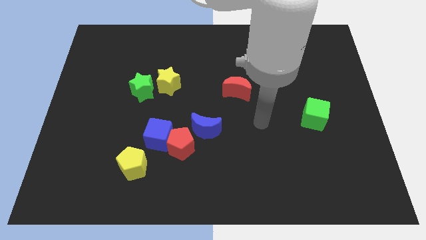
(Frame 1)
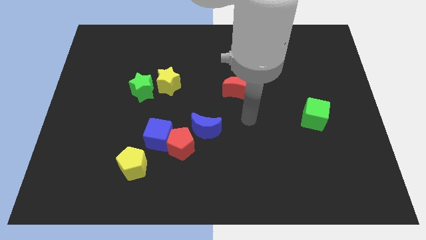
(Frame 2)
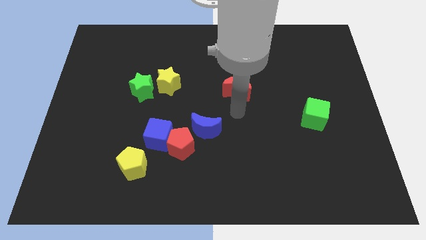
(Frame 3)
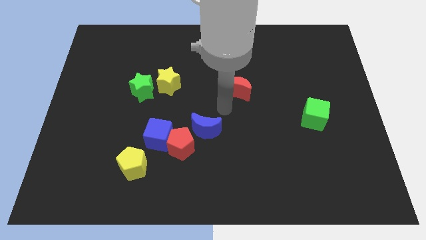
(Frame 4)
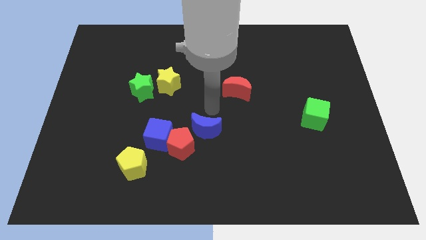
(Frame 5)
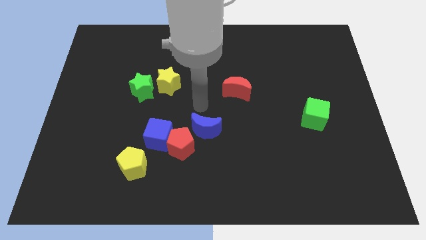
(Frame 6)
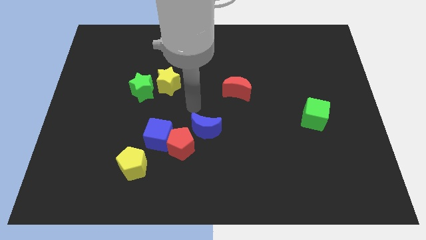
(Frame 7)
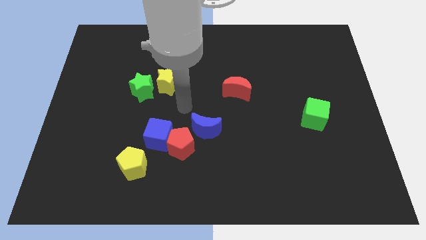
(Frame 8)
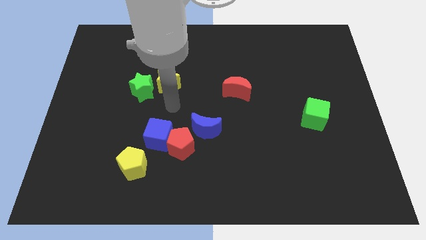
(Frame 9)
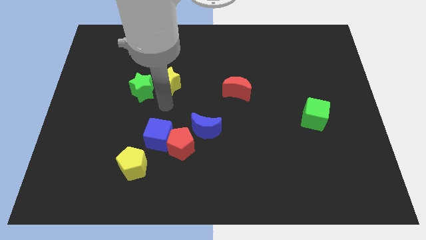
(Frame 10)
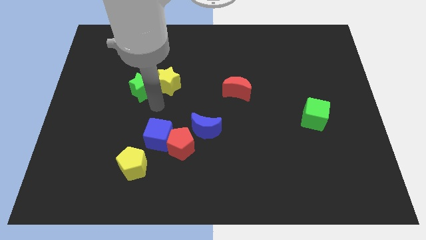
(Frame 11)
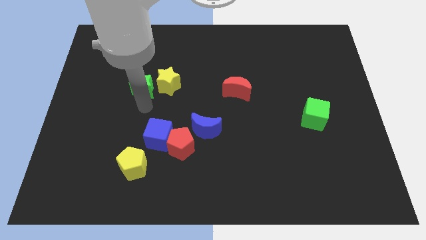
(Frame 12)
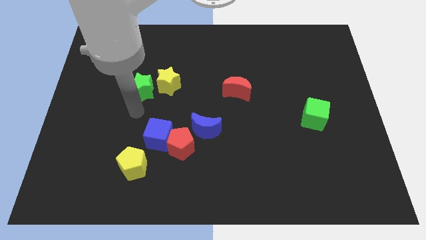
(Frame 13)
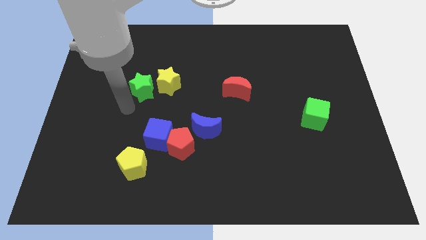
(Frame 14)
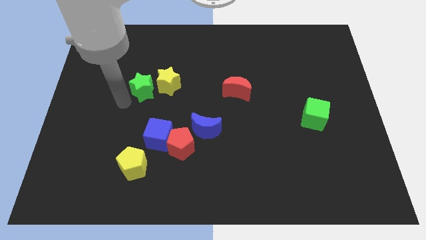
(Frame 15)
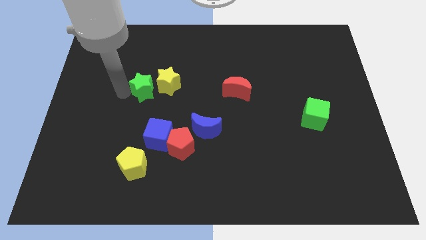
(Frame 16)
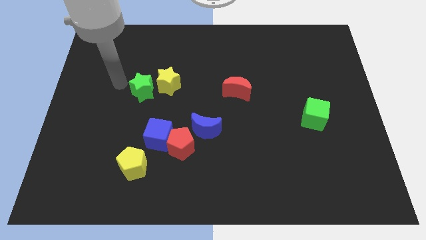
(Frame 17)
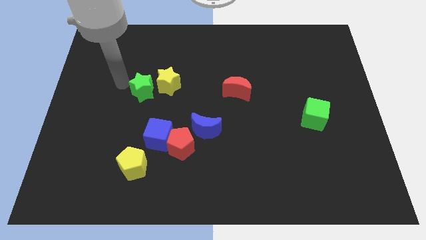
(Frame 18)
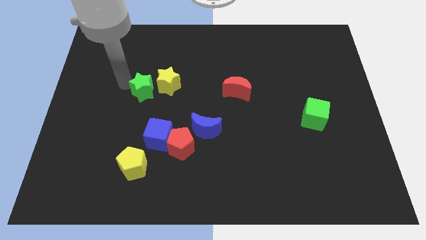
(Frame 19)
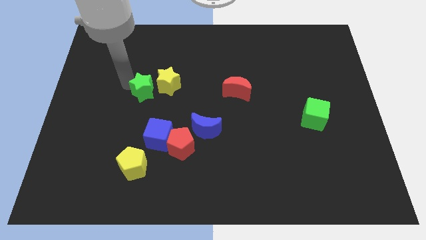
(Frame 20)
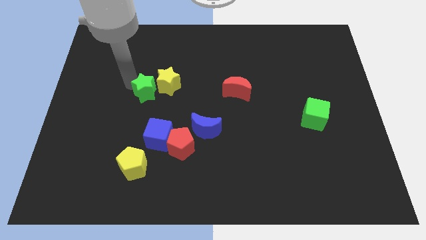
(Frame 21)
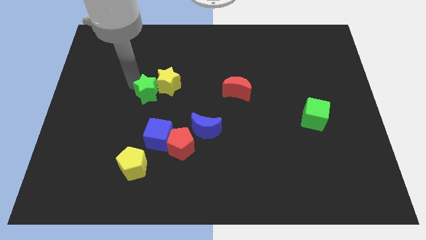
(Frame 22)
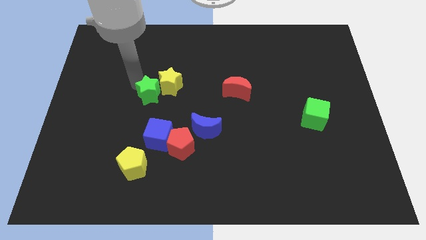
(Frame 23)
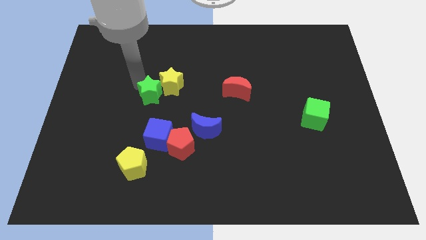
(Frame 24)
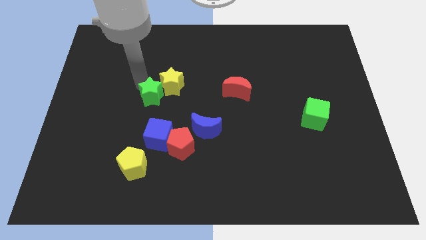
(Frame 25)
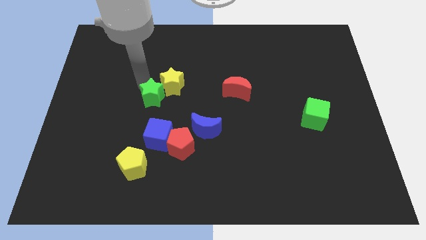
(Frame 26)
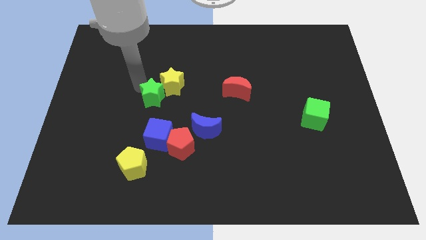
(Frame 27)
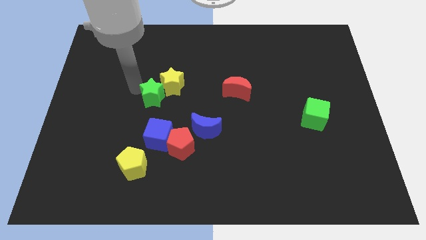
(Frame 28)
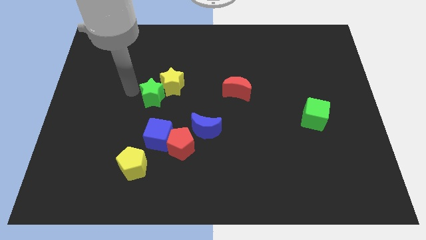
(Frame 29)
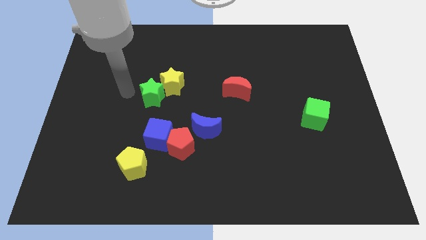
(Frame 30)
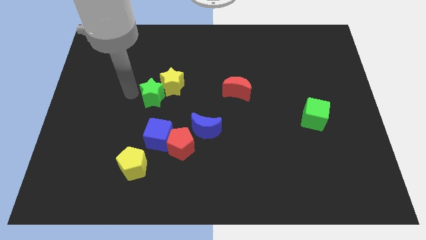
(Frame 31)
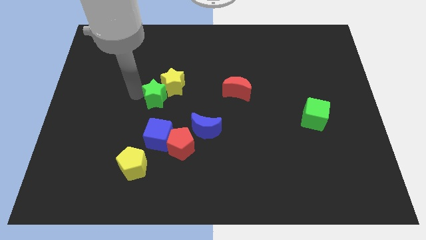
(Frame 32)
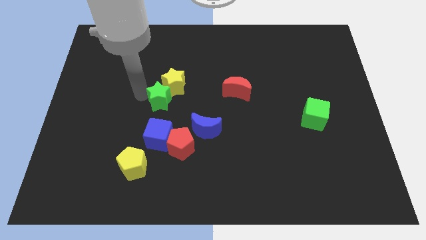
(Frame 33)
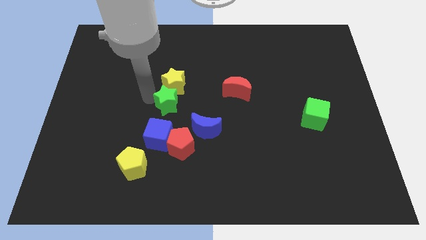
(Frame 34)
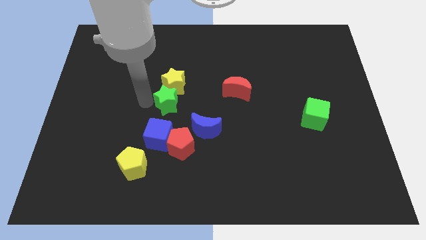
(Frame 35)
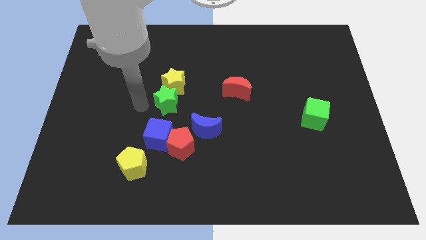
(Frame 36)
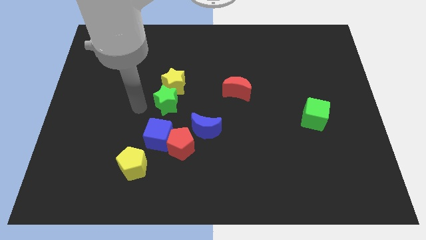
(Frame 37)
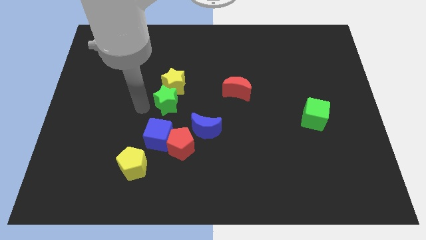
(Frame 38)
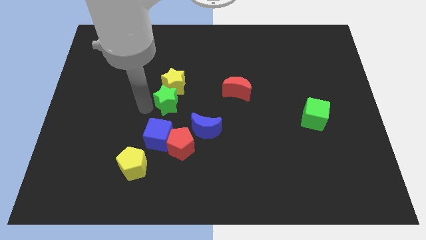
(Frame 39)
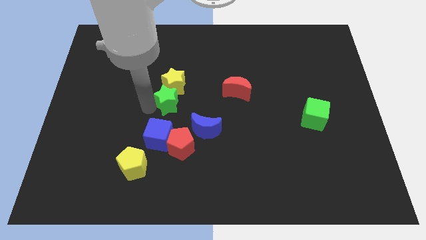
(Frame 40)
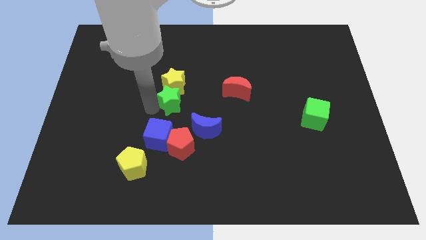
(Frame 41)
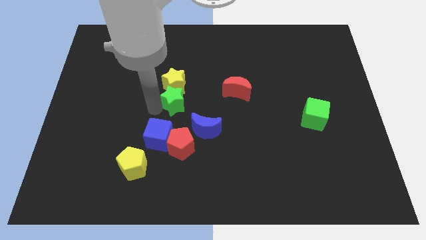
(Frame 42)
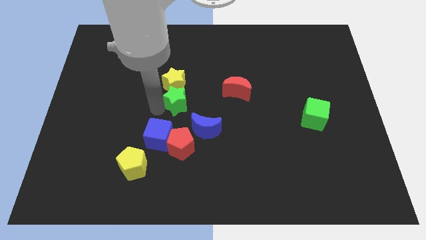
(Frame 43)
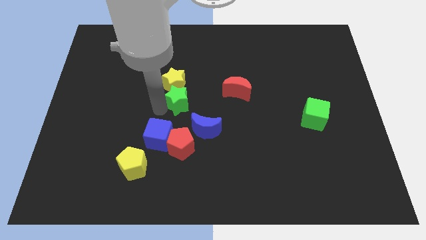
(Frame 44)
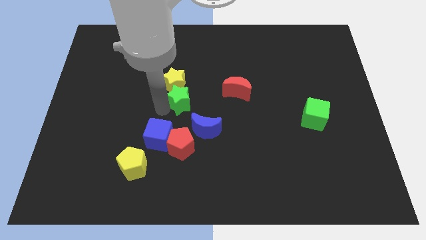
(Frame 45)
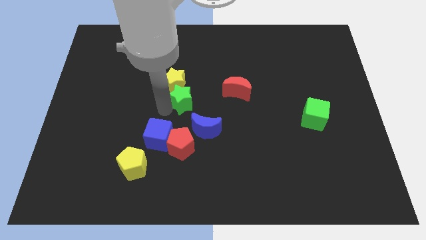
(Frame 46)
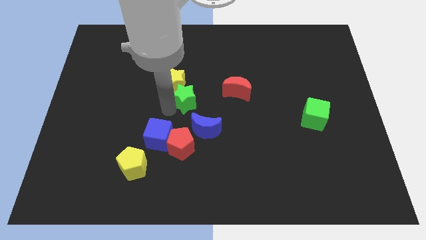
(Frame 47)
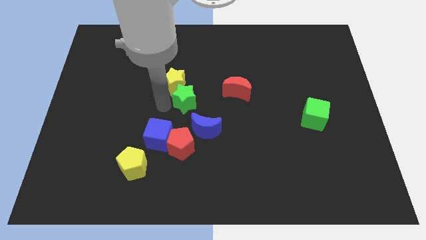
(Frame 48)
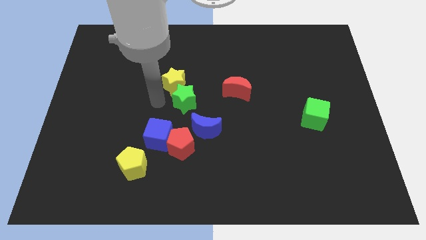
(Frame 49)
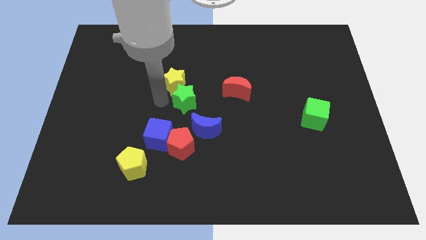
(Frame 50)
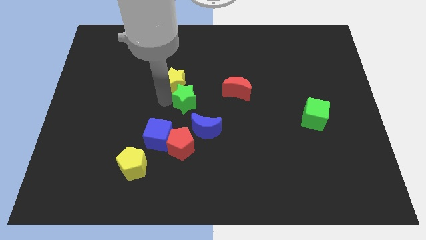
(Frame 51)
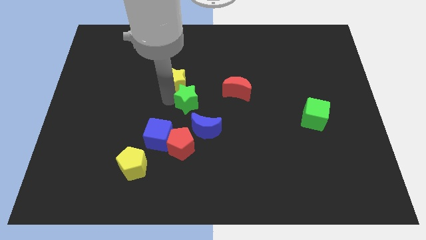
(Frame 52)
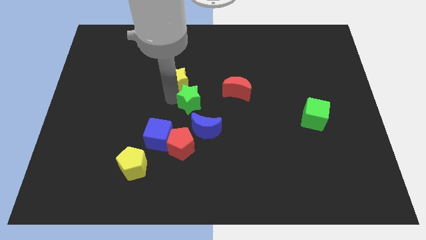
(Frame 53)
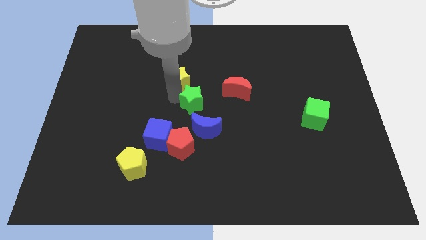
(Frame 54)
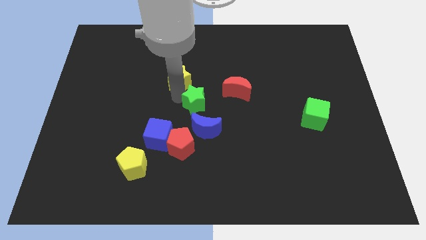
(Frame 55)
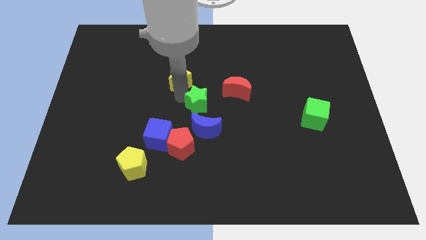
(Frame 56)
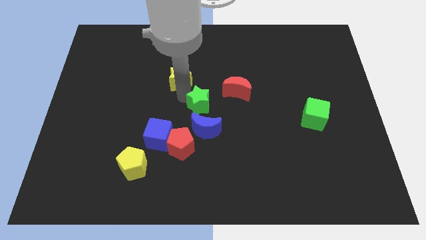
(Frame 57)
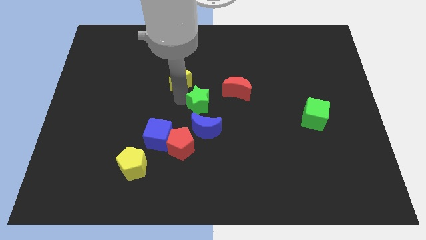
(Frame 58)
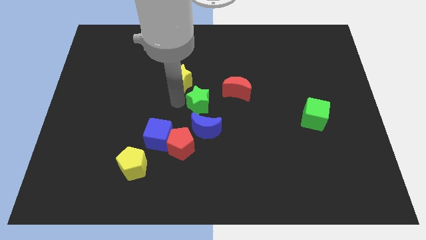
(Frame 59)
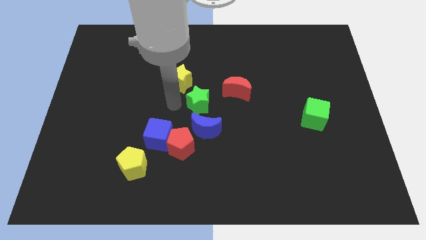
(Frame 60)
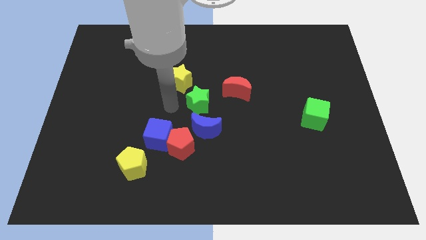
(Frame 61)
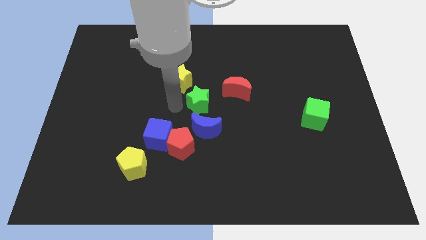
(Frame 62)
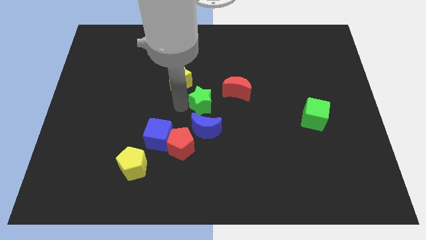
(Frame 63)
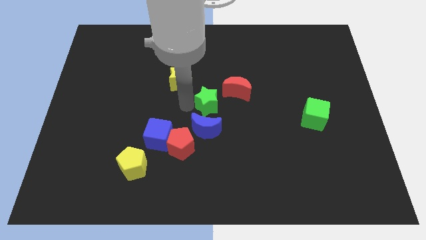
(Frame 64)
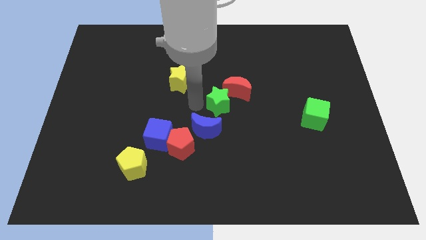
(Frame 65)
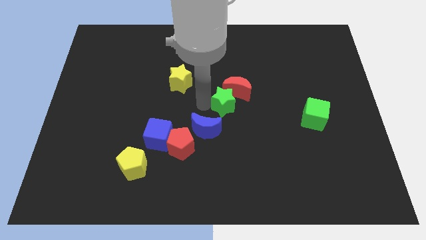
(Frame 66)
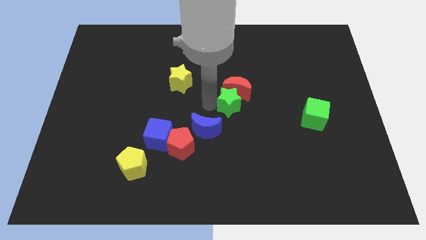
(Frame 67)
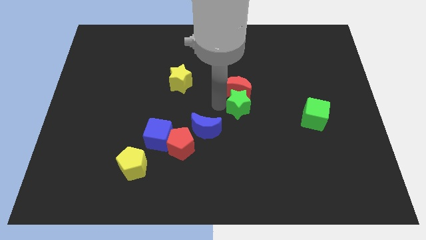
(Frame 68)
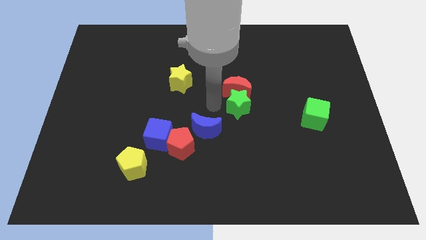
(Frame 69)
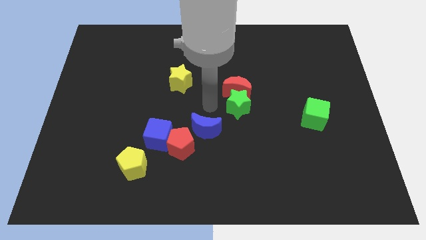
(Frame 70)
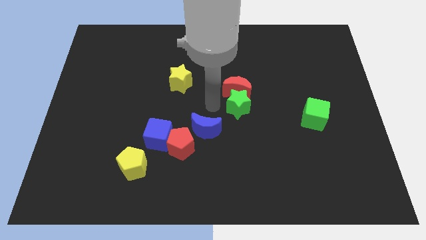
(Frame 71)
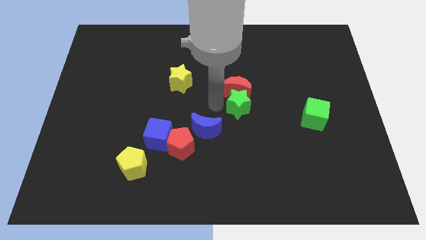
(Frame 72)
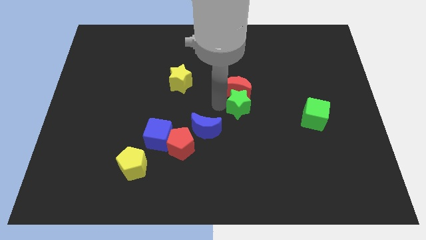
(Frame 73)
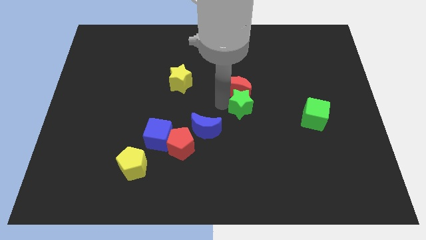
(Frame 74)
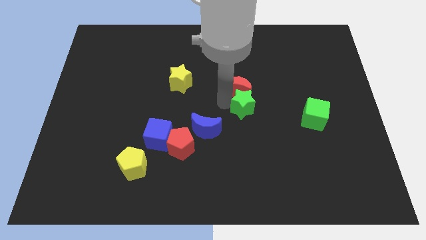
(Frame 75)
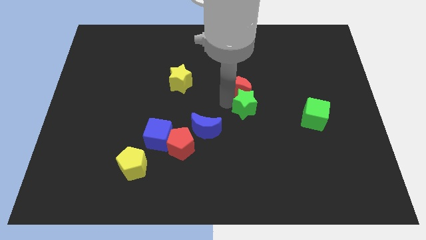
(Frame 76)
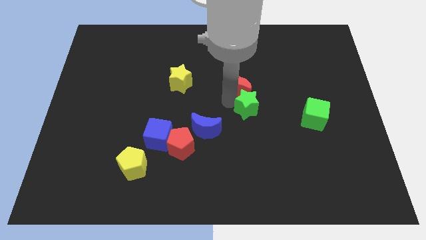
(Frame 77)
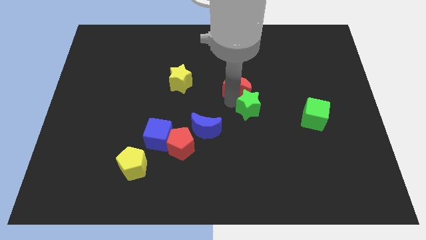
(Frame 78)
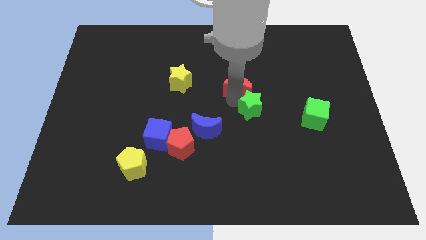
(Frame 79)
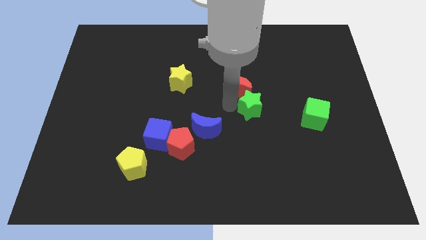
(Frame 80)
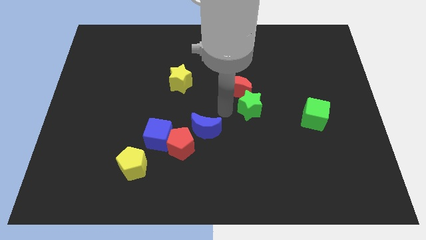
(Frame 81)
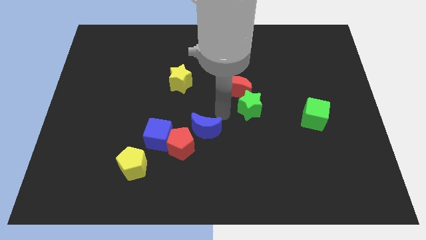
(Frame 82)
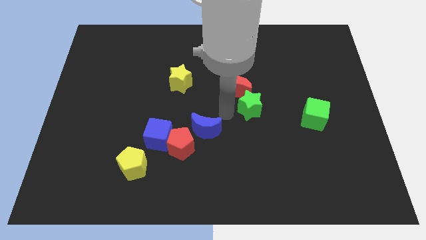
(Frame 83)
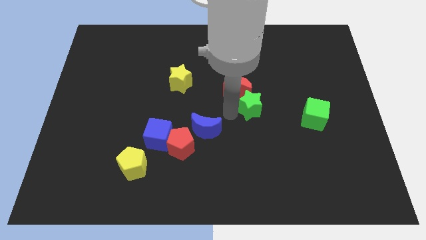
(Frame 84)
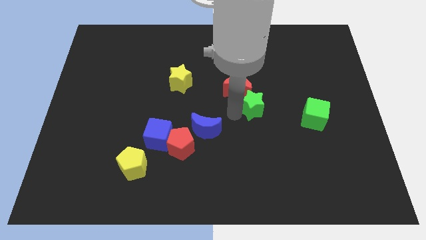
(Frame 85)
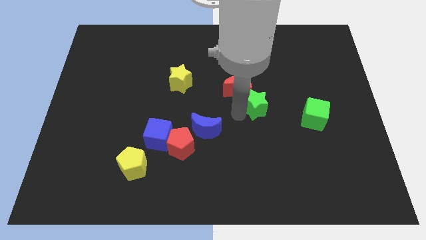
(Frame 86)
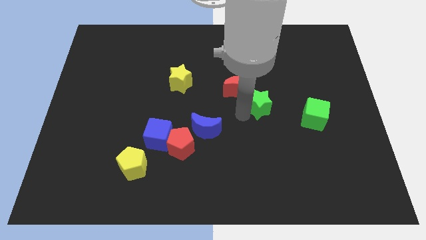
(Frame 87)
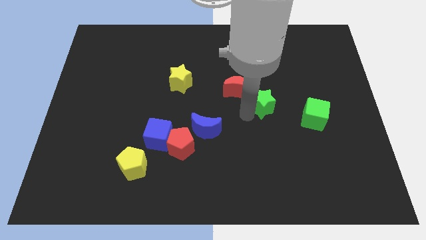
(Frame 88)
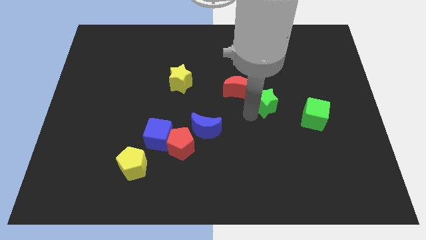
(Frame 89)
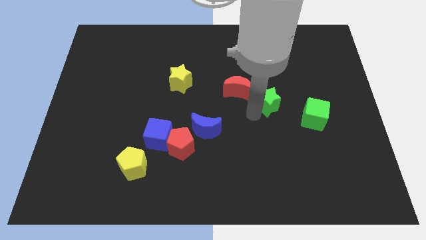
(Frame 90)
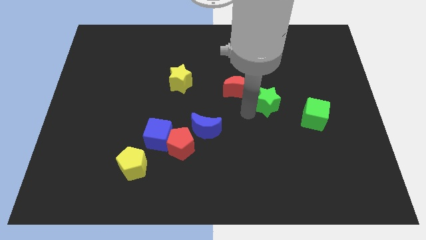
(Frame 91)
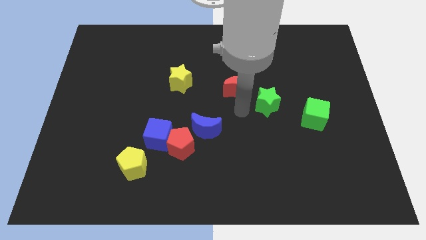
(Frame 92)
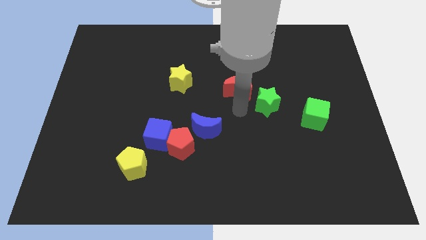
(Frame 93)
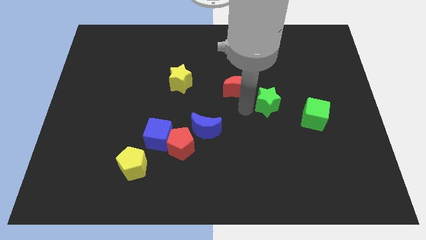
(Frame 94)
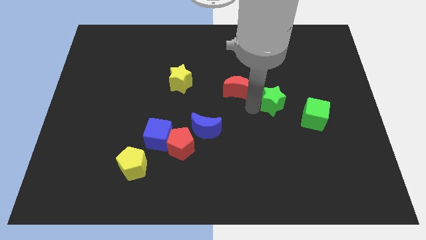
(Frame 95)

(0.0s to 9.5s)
push the green star to the top left side of the green cube
